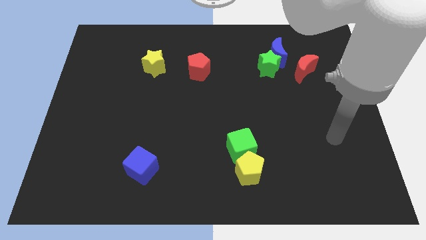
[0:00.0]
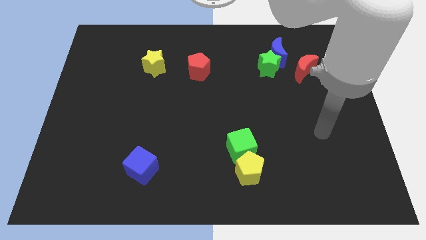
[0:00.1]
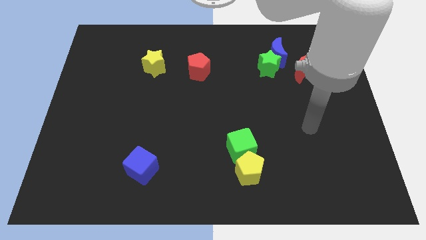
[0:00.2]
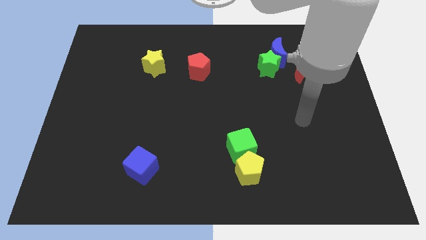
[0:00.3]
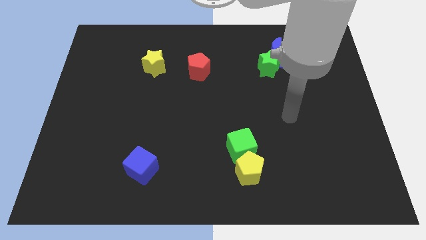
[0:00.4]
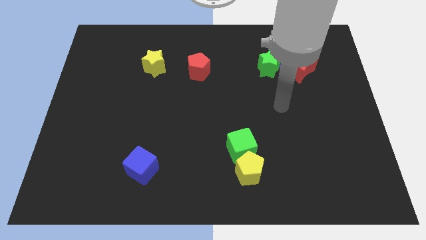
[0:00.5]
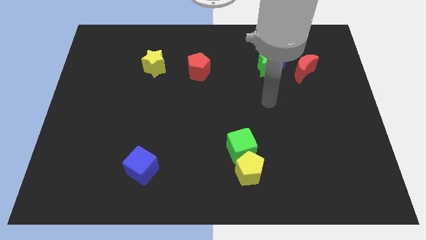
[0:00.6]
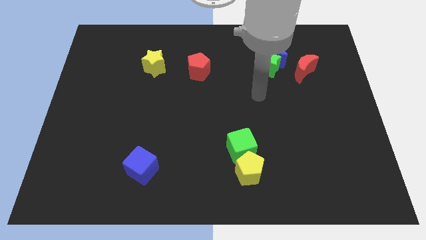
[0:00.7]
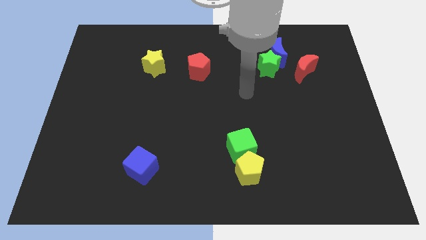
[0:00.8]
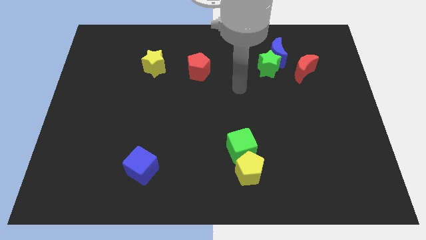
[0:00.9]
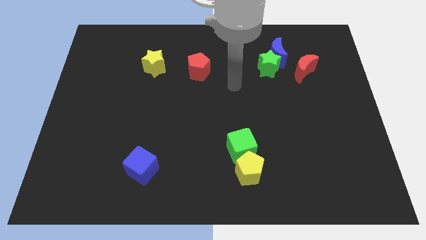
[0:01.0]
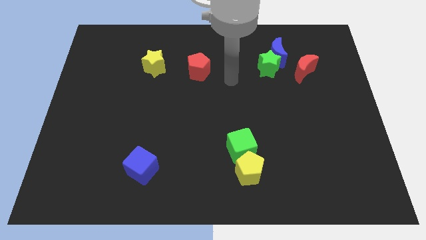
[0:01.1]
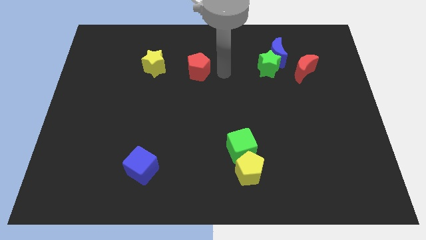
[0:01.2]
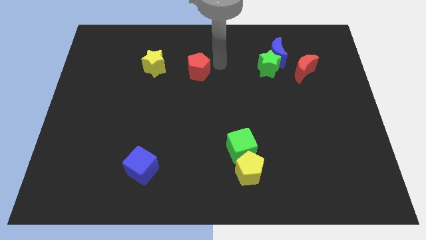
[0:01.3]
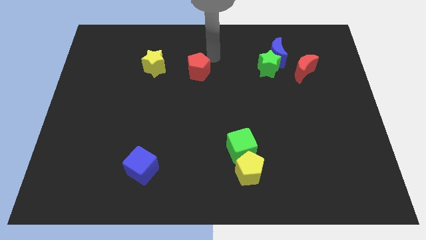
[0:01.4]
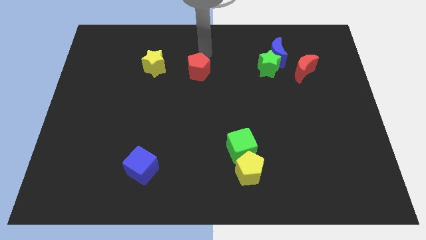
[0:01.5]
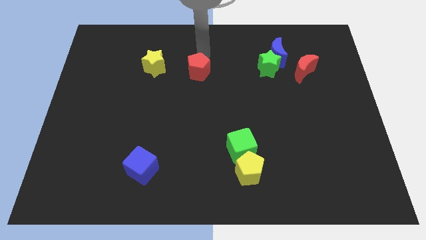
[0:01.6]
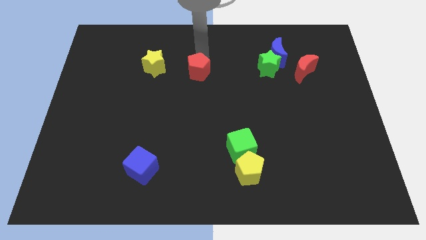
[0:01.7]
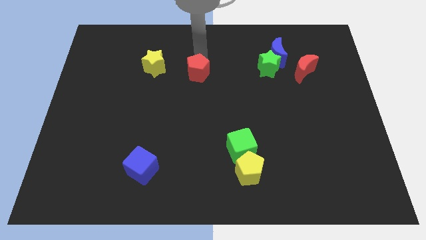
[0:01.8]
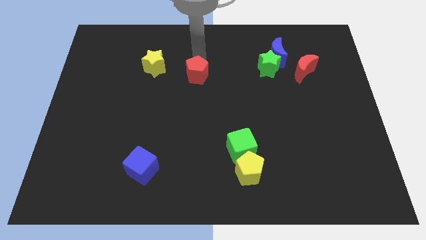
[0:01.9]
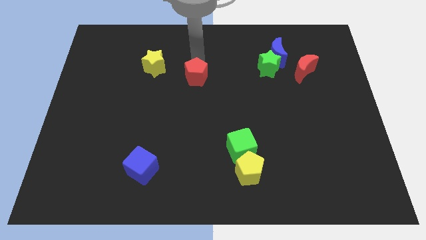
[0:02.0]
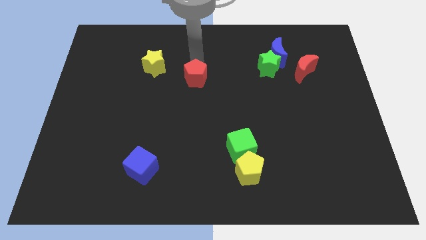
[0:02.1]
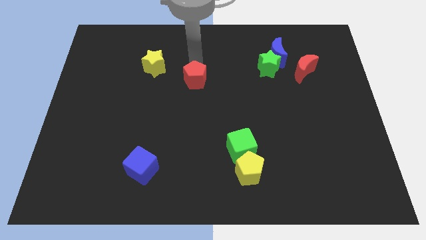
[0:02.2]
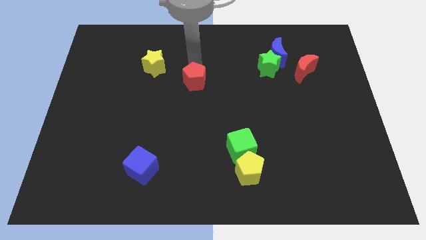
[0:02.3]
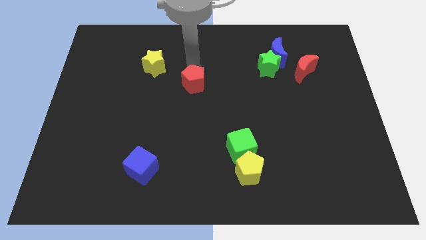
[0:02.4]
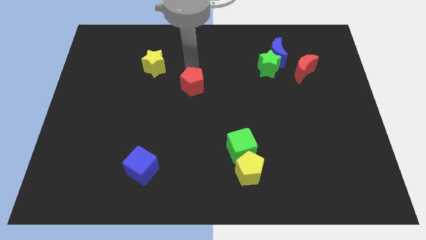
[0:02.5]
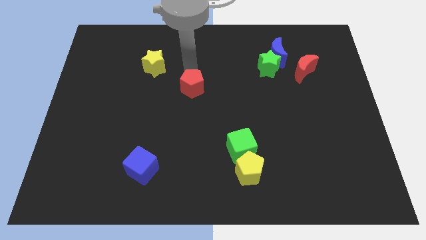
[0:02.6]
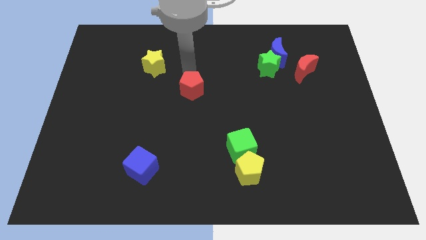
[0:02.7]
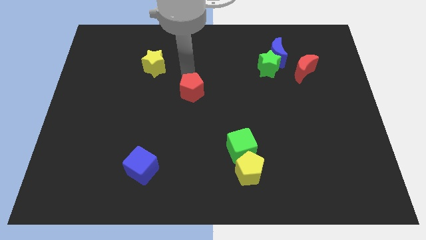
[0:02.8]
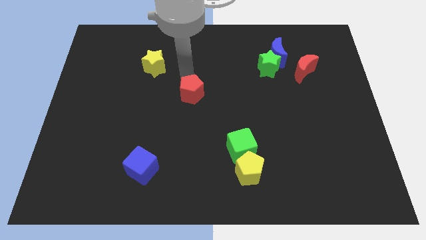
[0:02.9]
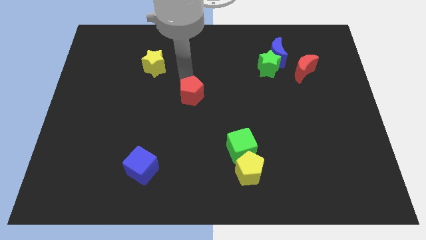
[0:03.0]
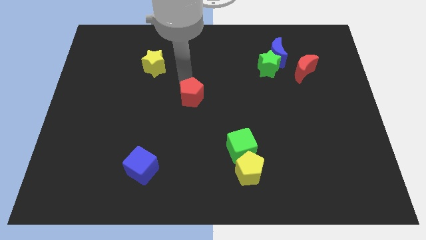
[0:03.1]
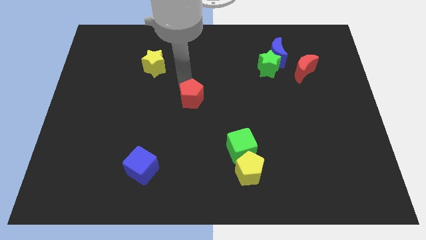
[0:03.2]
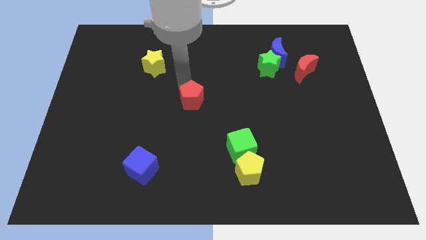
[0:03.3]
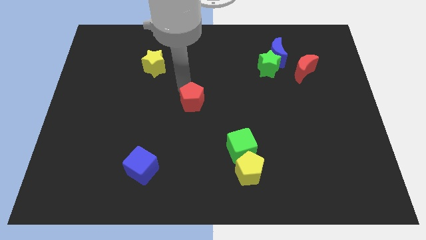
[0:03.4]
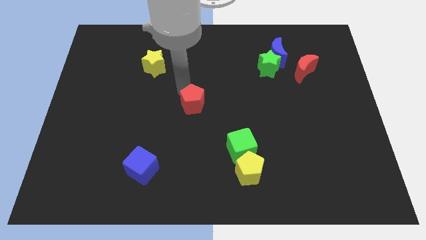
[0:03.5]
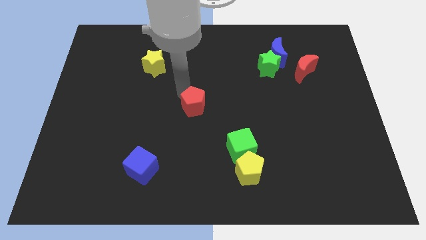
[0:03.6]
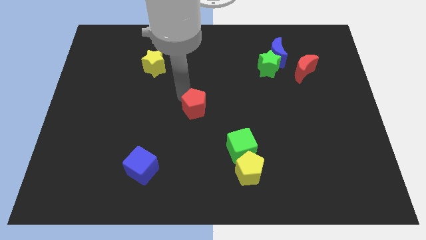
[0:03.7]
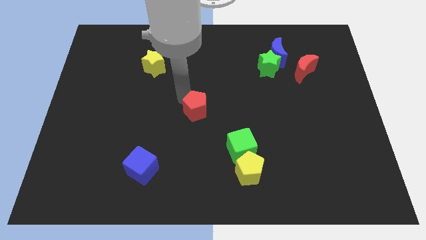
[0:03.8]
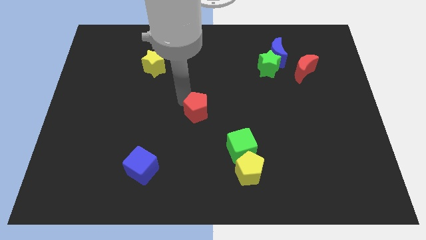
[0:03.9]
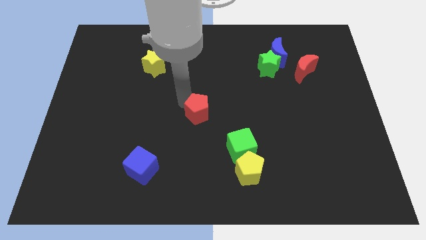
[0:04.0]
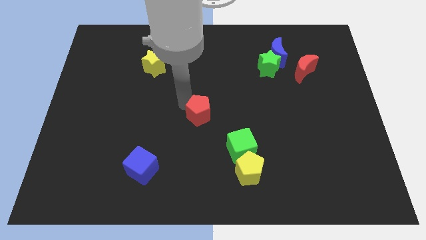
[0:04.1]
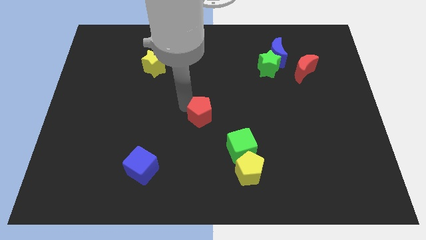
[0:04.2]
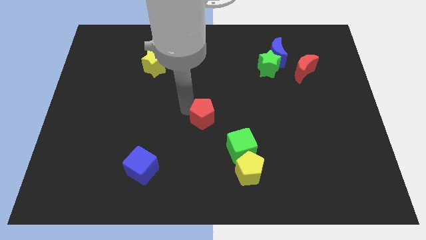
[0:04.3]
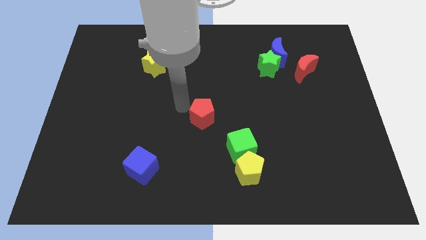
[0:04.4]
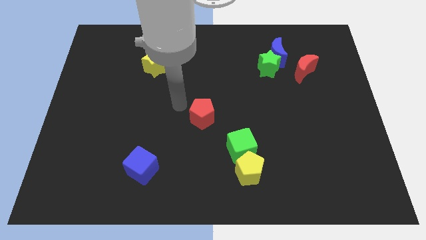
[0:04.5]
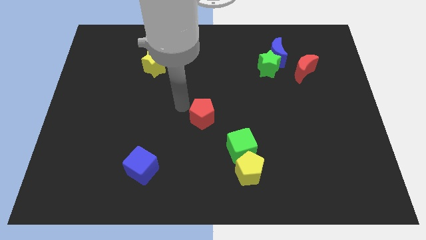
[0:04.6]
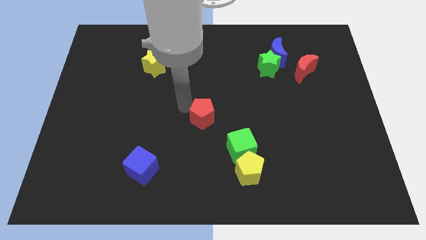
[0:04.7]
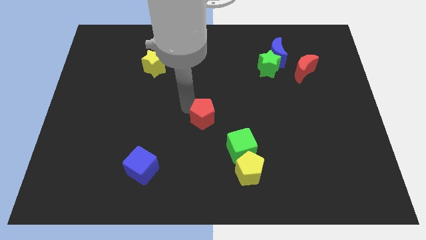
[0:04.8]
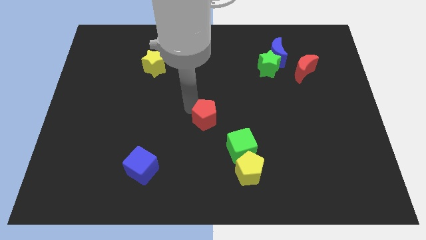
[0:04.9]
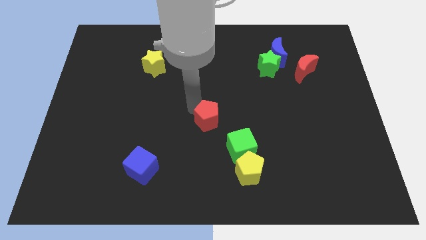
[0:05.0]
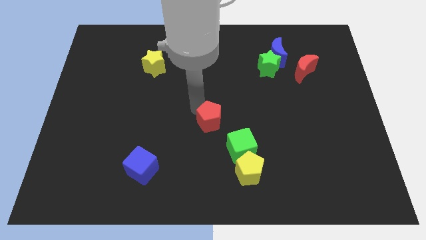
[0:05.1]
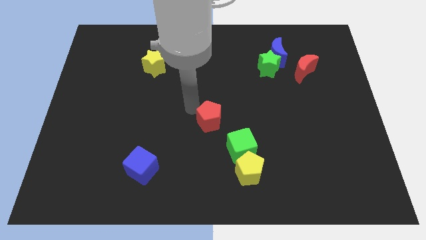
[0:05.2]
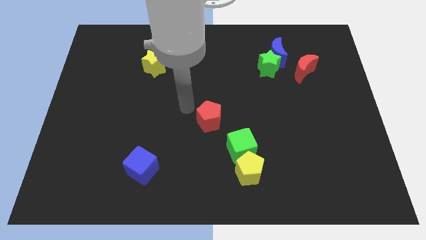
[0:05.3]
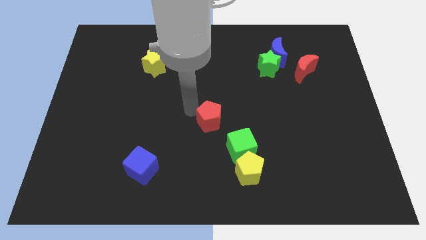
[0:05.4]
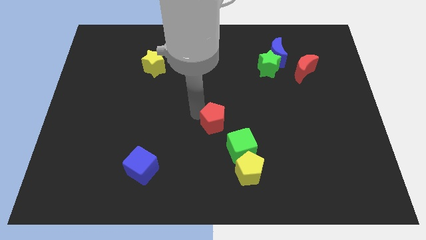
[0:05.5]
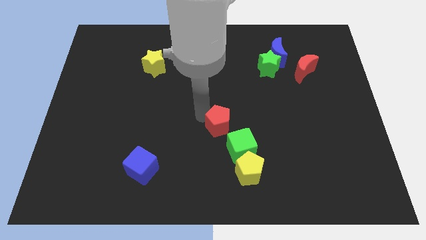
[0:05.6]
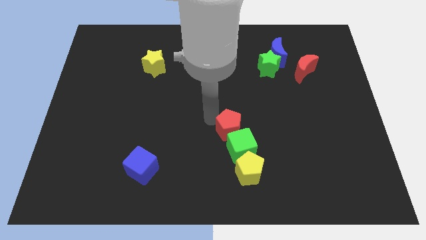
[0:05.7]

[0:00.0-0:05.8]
push the red pentagon to the green cube

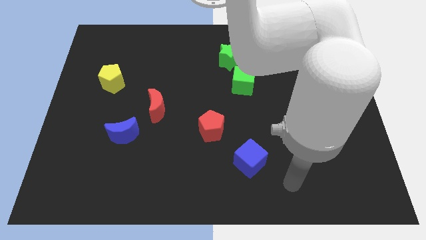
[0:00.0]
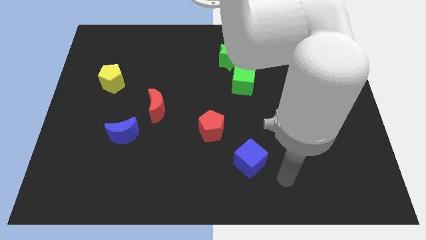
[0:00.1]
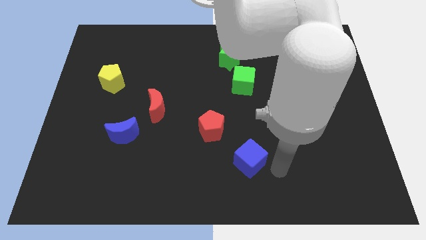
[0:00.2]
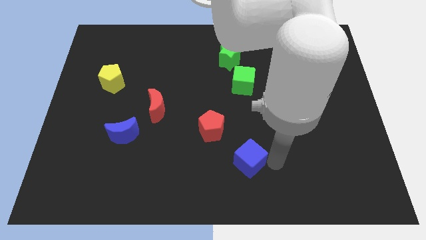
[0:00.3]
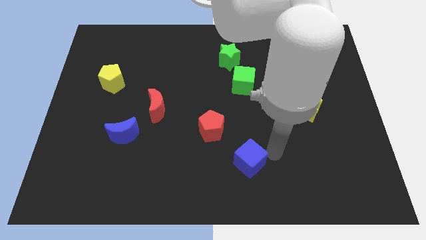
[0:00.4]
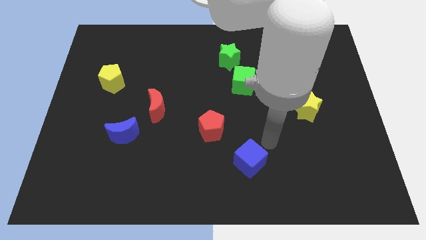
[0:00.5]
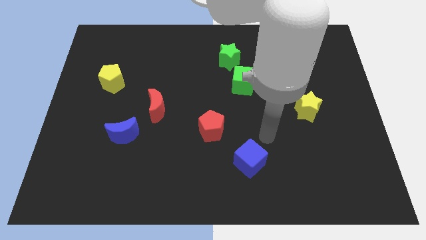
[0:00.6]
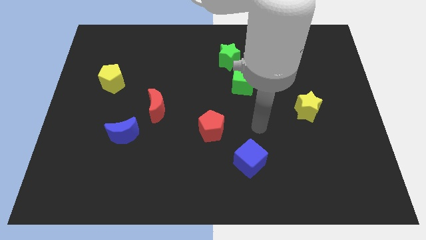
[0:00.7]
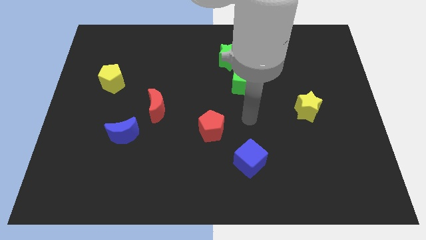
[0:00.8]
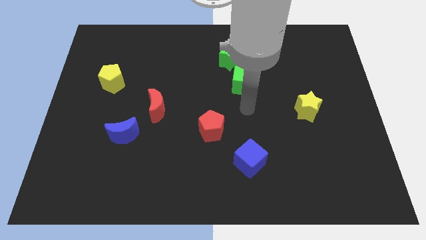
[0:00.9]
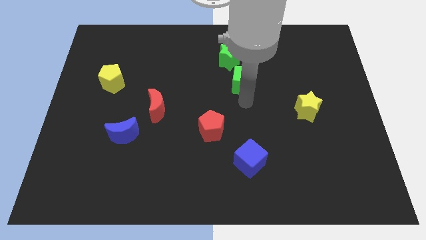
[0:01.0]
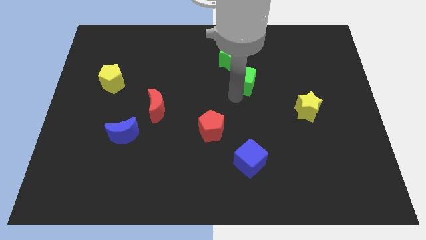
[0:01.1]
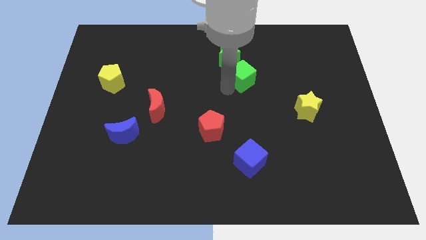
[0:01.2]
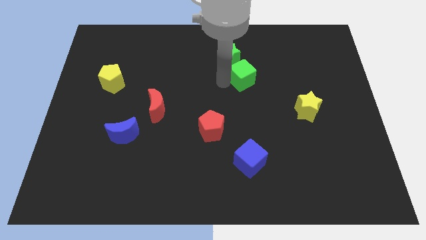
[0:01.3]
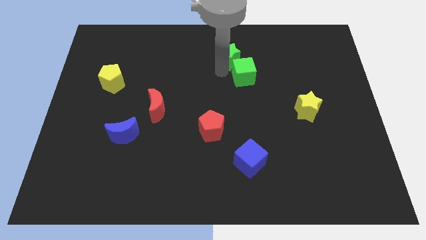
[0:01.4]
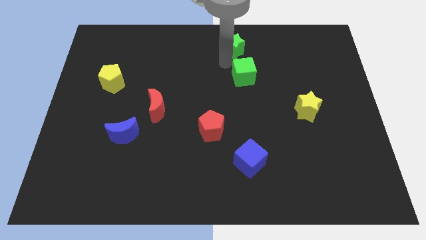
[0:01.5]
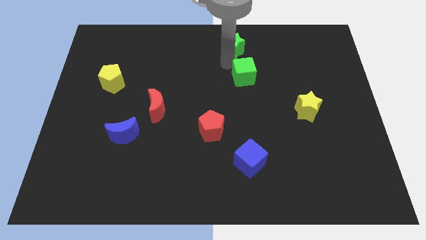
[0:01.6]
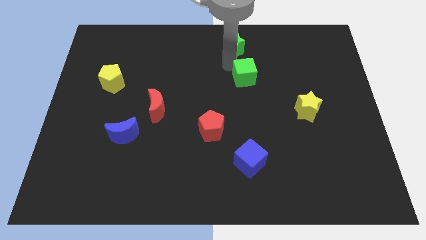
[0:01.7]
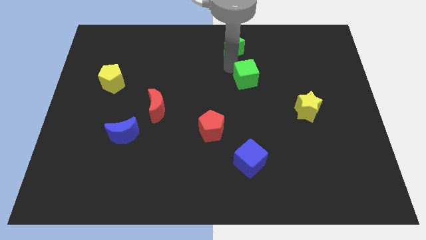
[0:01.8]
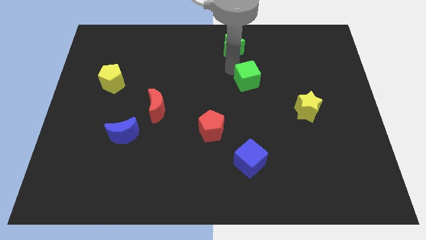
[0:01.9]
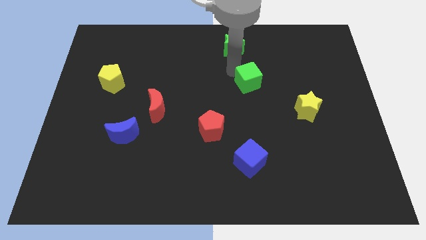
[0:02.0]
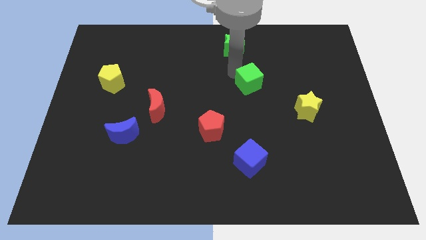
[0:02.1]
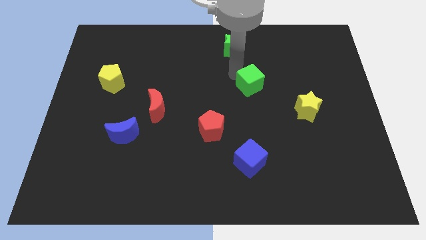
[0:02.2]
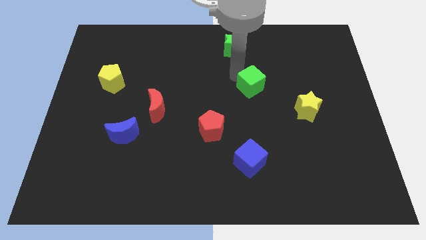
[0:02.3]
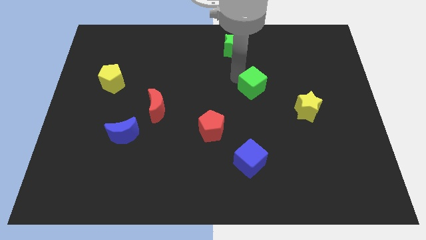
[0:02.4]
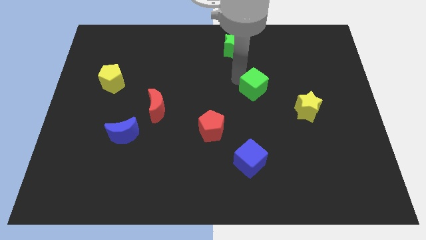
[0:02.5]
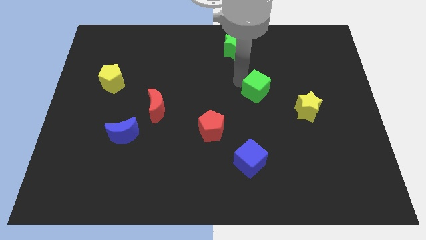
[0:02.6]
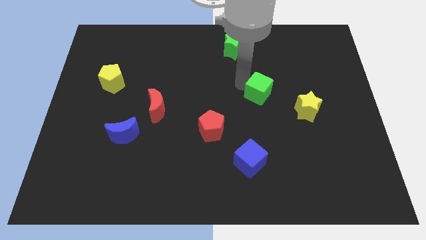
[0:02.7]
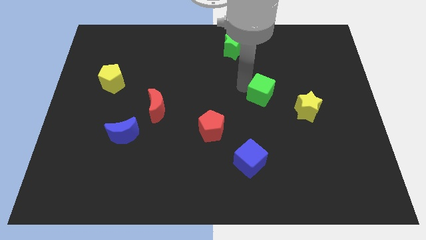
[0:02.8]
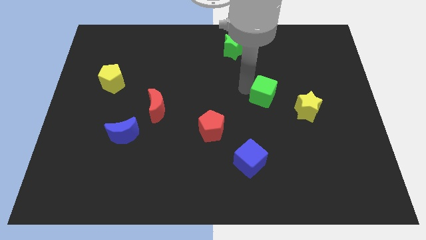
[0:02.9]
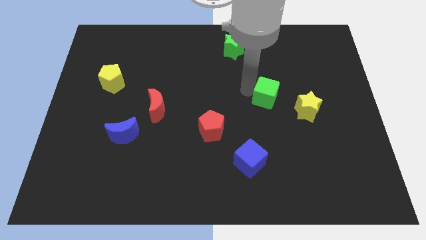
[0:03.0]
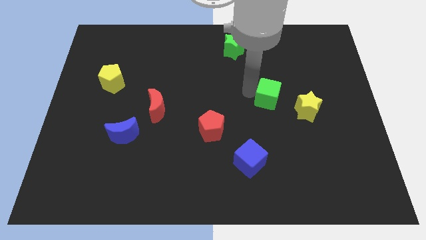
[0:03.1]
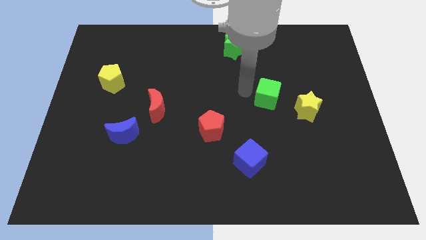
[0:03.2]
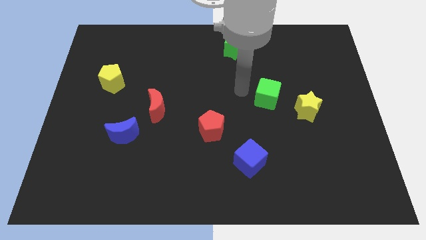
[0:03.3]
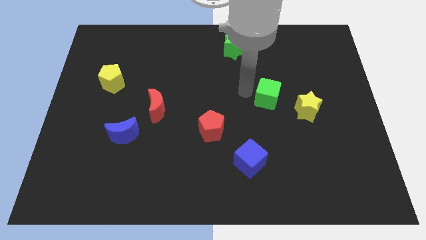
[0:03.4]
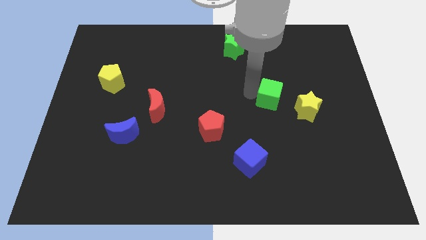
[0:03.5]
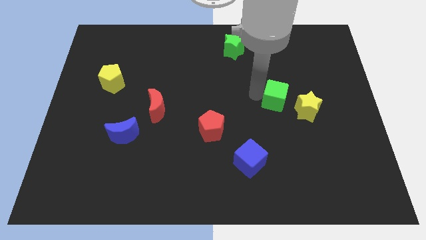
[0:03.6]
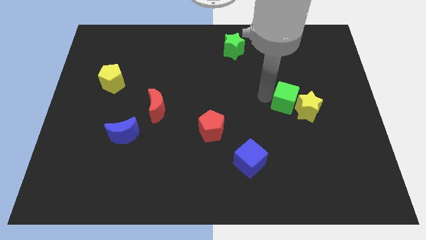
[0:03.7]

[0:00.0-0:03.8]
move the green cube to the yellow star
